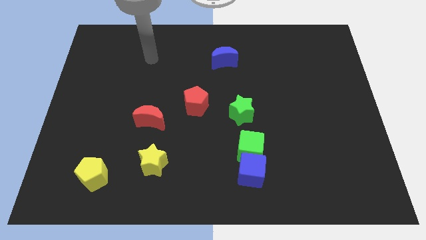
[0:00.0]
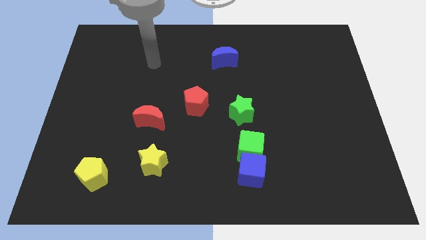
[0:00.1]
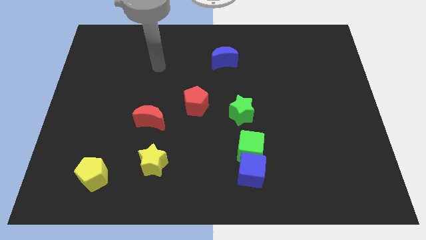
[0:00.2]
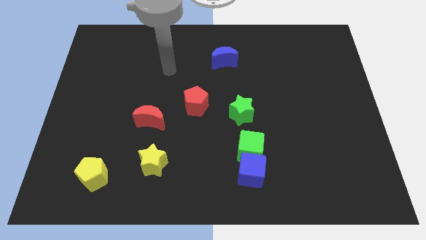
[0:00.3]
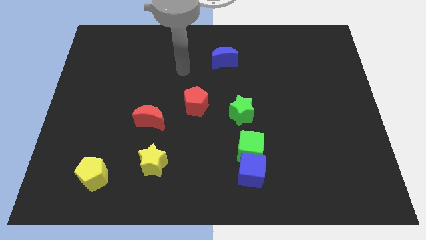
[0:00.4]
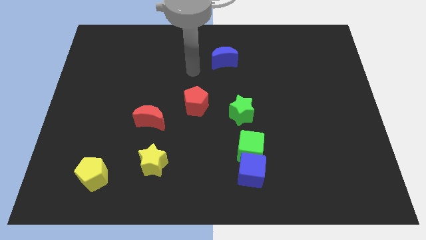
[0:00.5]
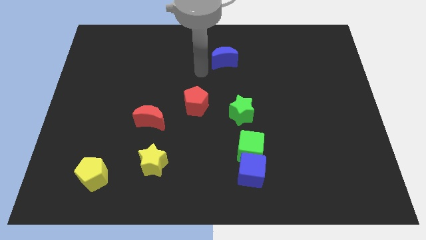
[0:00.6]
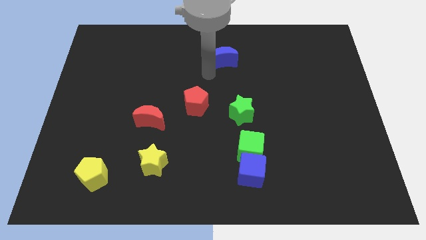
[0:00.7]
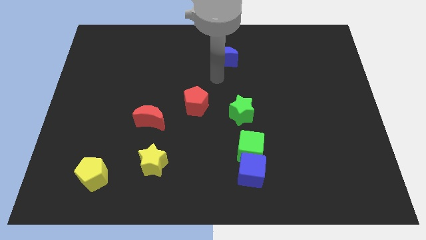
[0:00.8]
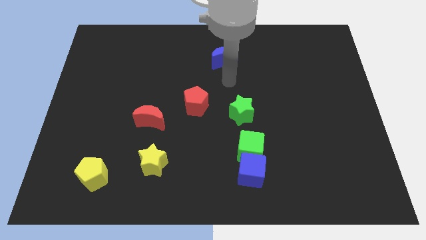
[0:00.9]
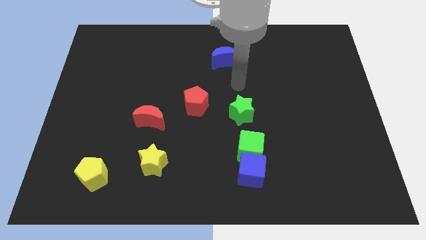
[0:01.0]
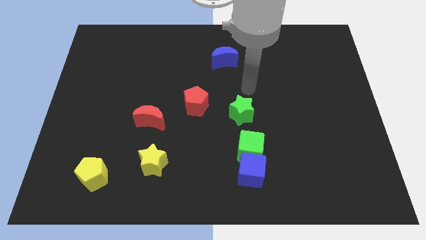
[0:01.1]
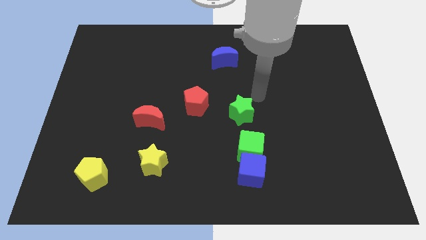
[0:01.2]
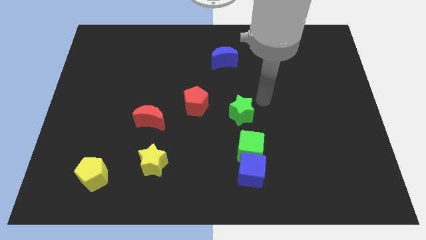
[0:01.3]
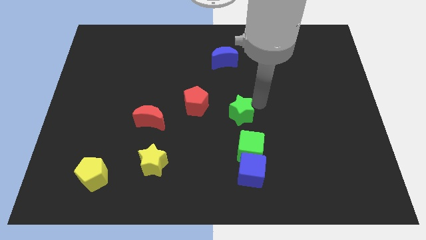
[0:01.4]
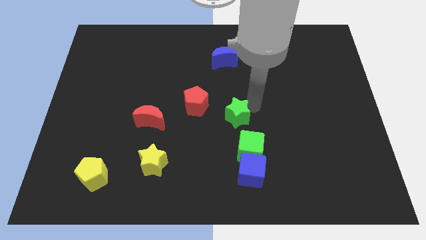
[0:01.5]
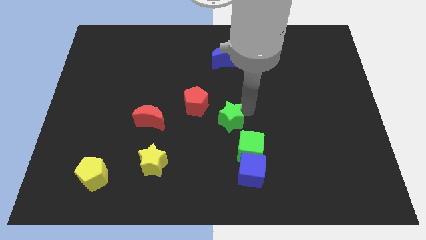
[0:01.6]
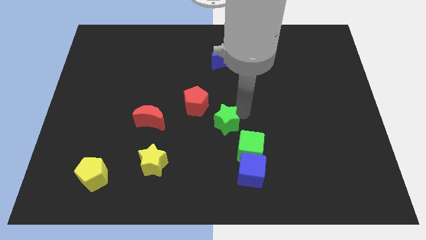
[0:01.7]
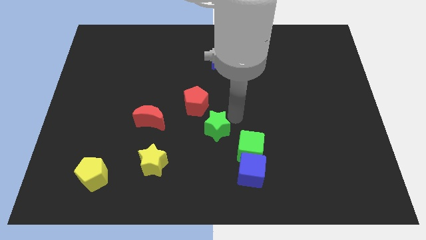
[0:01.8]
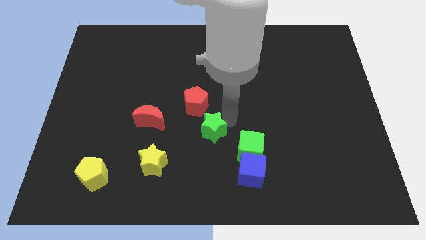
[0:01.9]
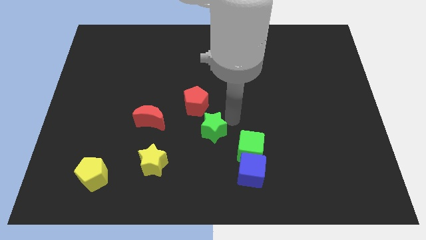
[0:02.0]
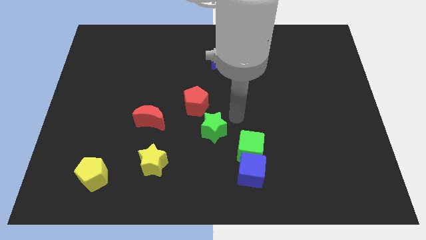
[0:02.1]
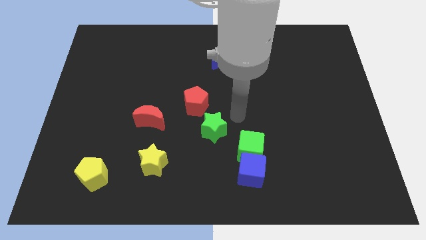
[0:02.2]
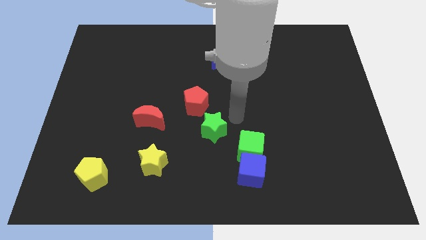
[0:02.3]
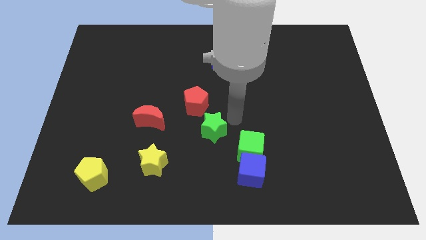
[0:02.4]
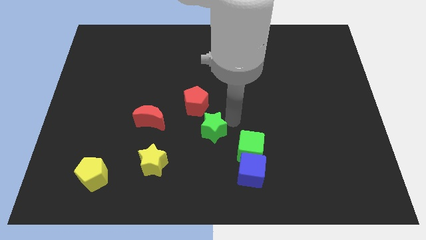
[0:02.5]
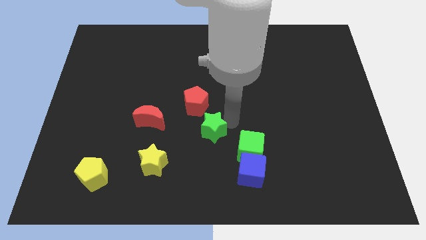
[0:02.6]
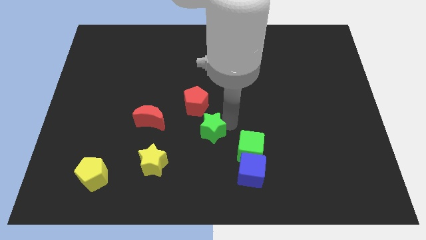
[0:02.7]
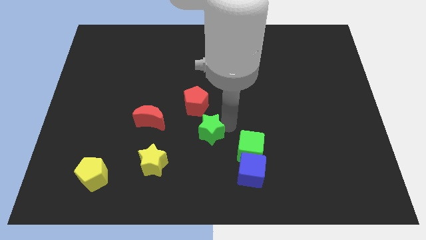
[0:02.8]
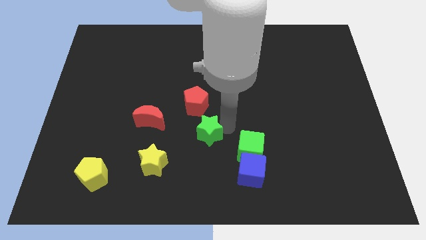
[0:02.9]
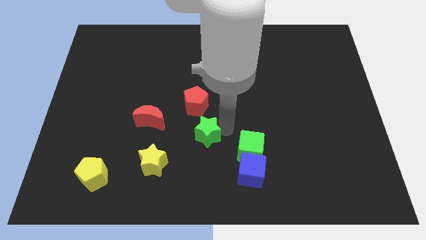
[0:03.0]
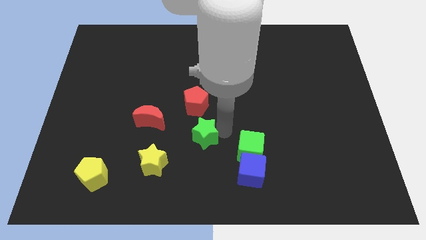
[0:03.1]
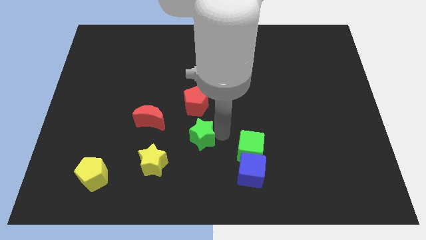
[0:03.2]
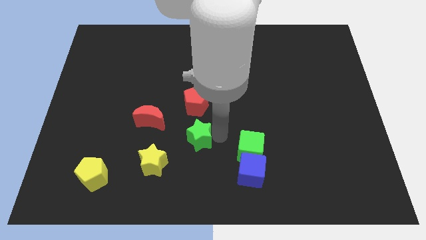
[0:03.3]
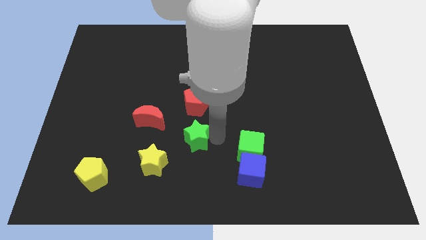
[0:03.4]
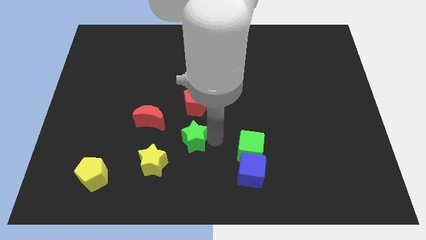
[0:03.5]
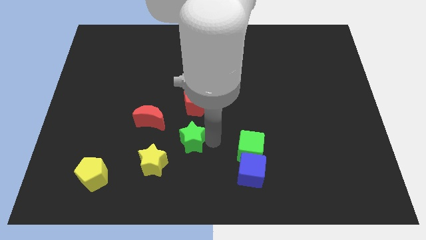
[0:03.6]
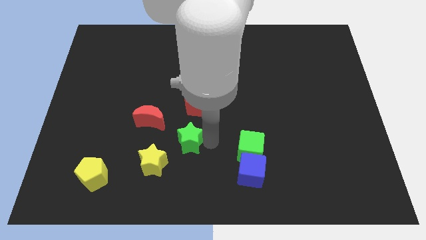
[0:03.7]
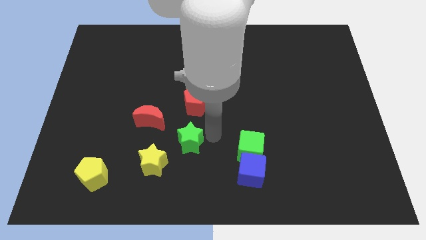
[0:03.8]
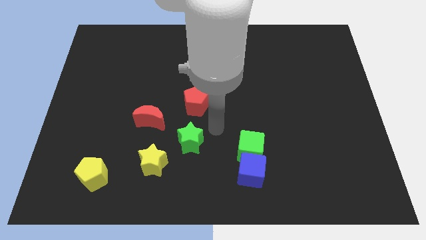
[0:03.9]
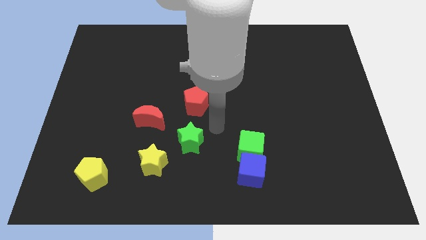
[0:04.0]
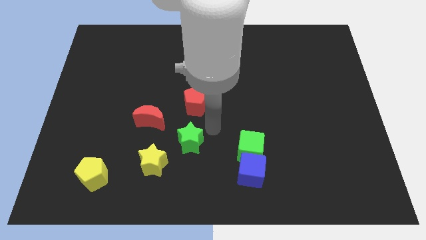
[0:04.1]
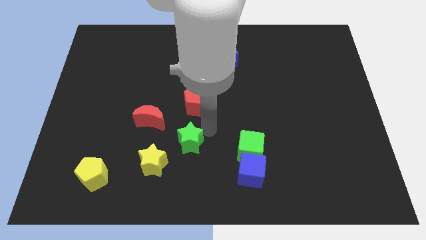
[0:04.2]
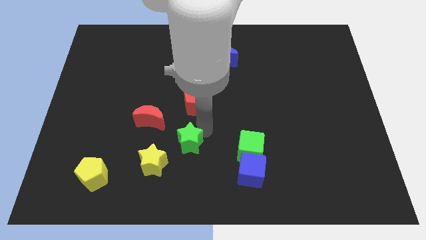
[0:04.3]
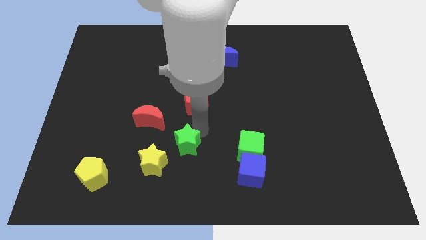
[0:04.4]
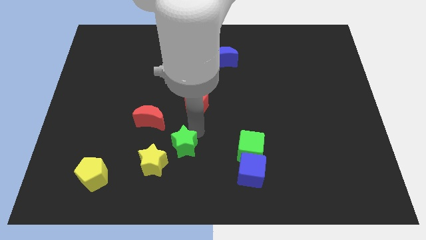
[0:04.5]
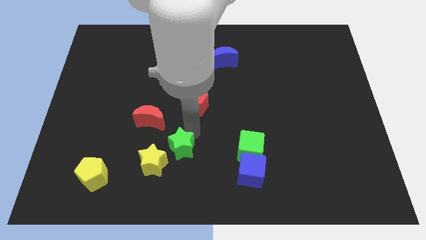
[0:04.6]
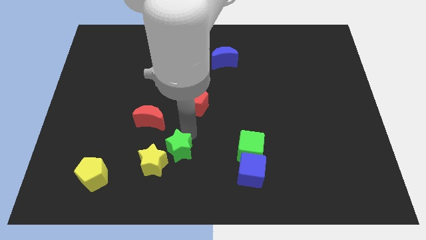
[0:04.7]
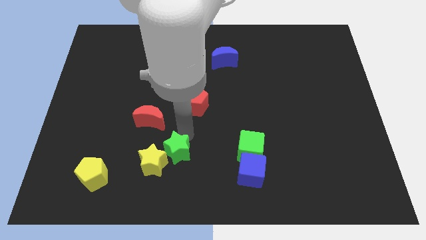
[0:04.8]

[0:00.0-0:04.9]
slide the green star close to the yellow star

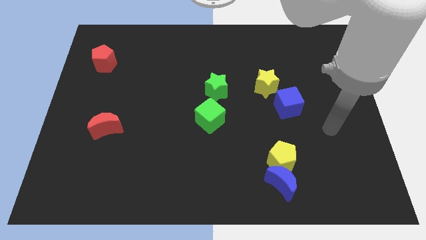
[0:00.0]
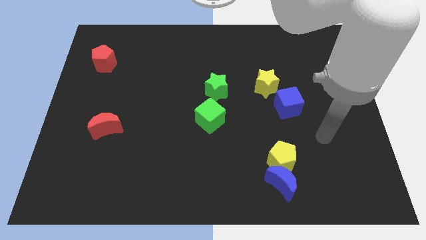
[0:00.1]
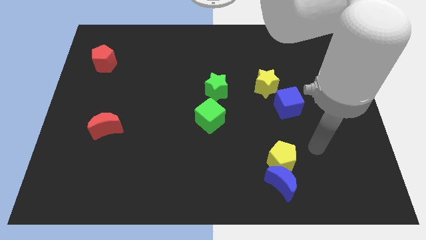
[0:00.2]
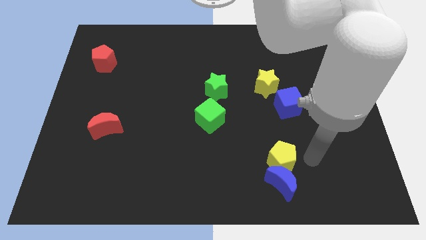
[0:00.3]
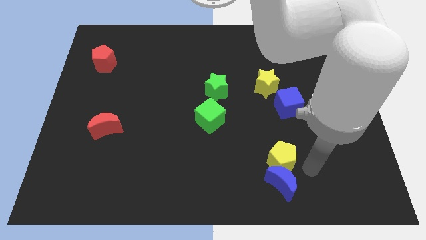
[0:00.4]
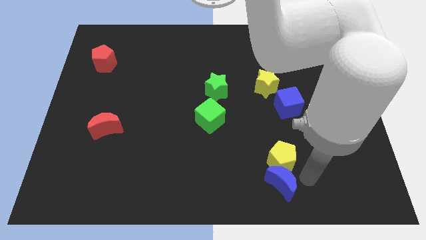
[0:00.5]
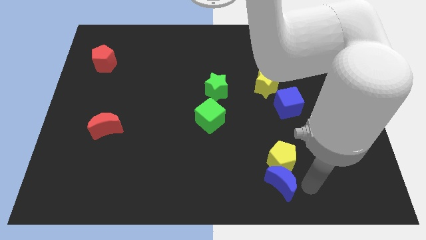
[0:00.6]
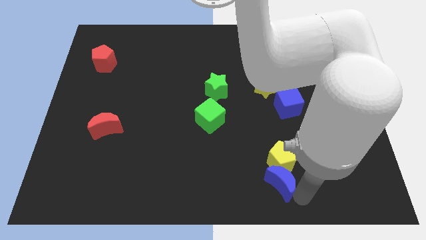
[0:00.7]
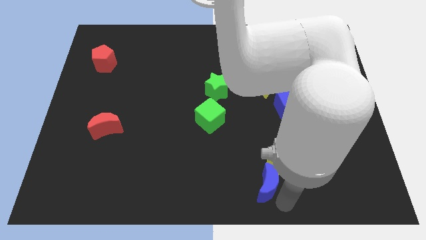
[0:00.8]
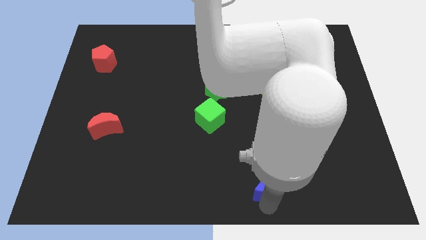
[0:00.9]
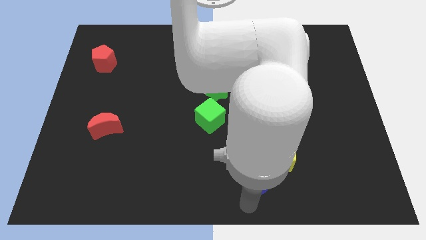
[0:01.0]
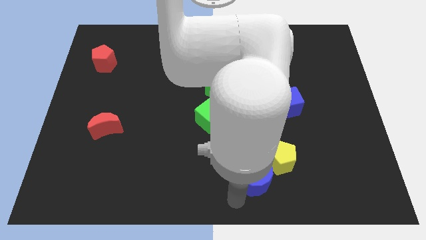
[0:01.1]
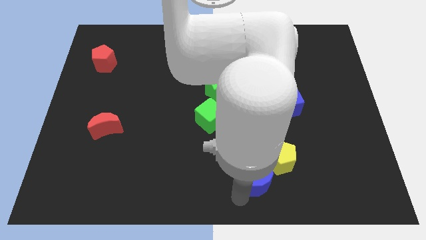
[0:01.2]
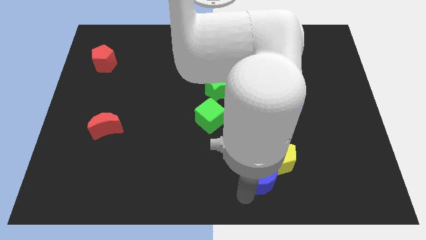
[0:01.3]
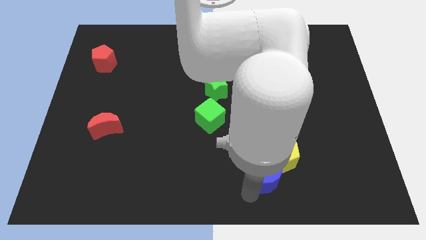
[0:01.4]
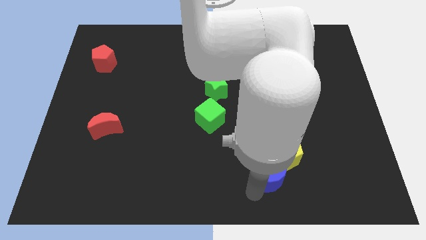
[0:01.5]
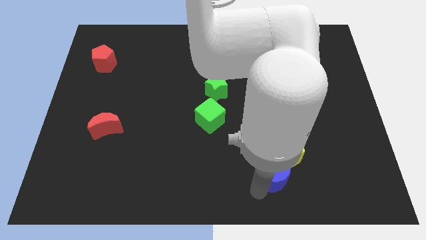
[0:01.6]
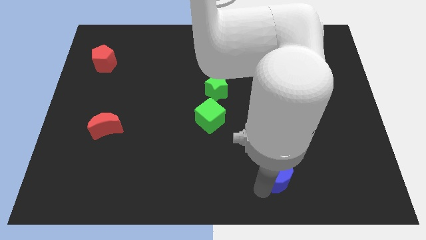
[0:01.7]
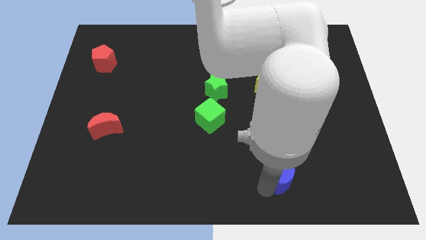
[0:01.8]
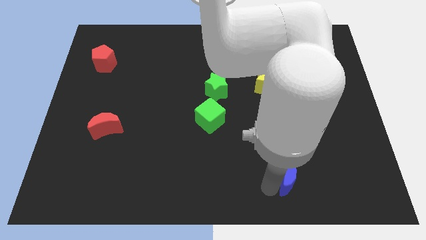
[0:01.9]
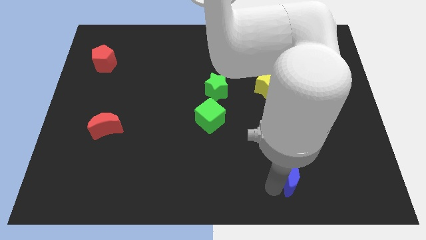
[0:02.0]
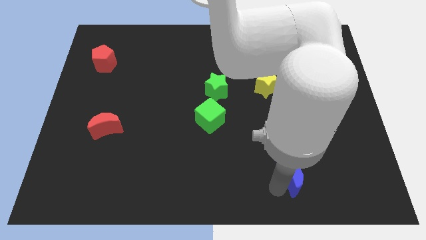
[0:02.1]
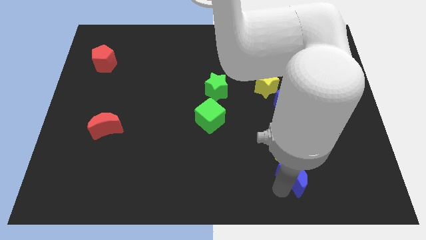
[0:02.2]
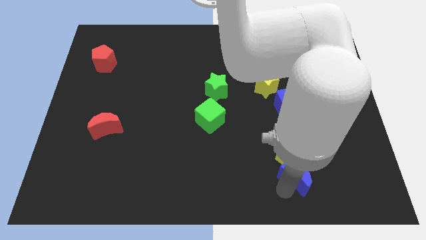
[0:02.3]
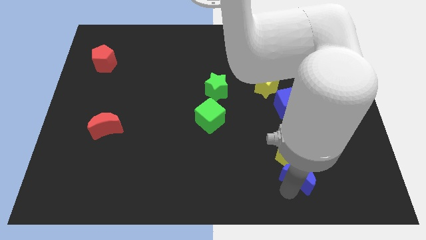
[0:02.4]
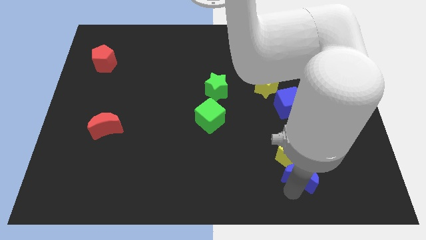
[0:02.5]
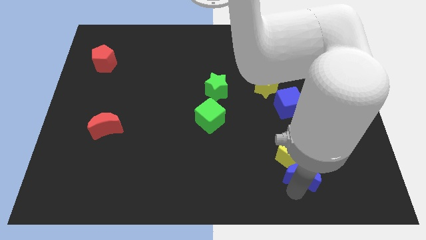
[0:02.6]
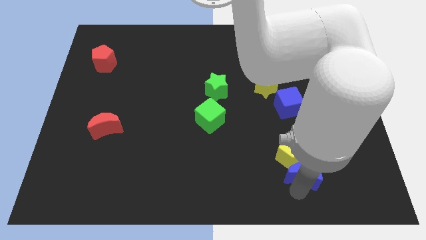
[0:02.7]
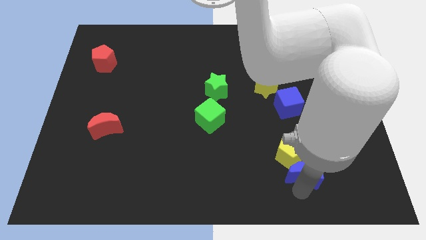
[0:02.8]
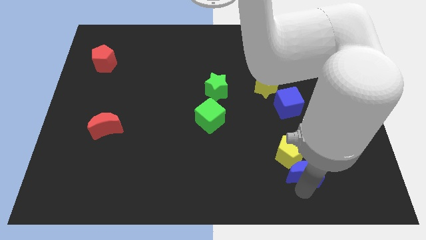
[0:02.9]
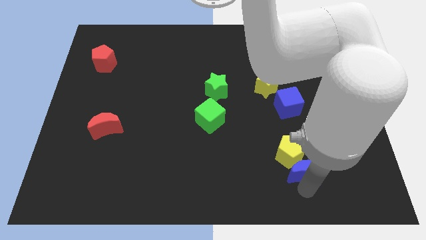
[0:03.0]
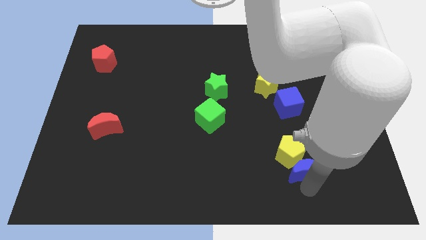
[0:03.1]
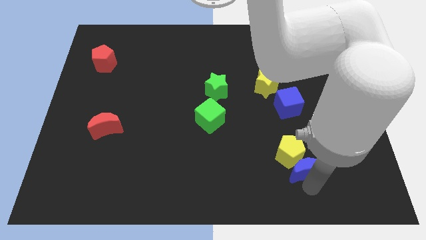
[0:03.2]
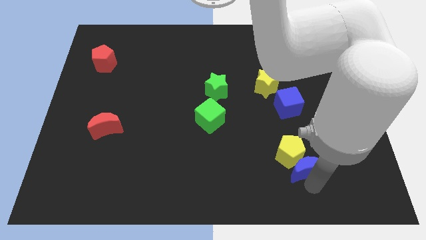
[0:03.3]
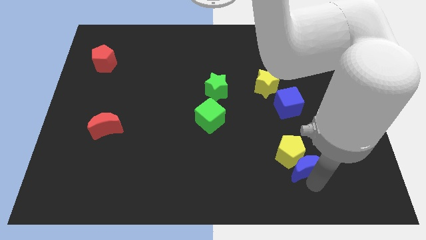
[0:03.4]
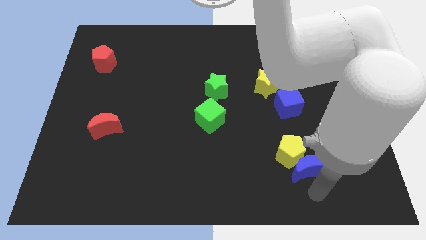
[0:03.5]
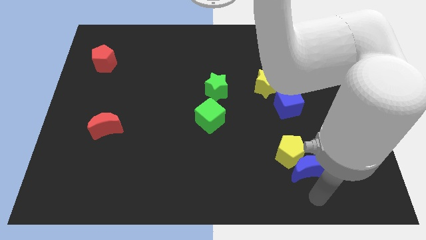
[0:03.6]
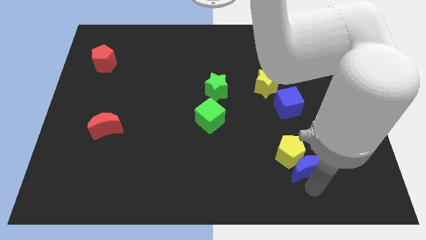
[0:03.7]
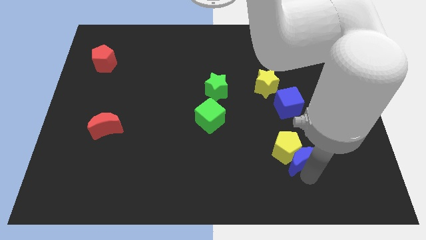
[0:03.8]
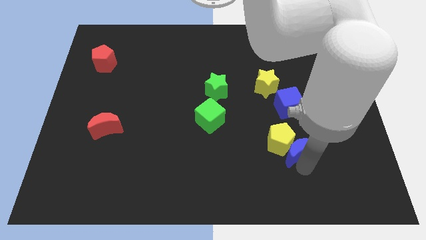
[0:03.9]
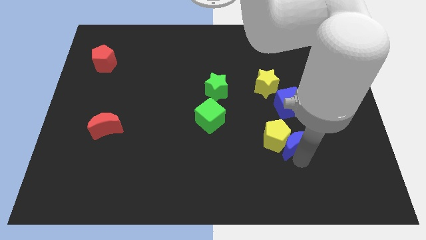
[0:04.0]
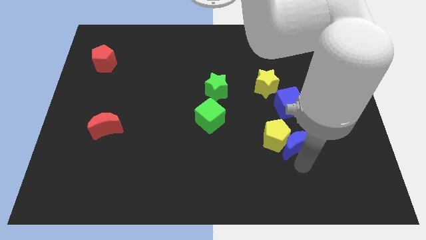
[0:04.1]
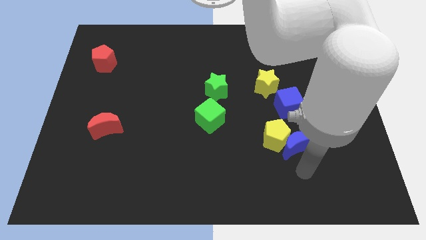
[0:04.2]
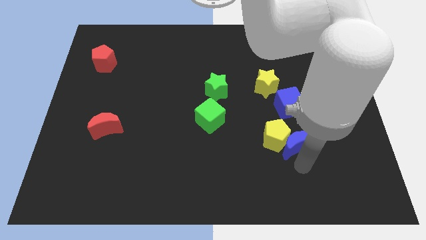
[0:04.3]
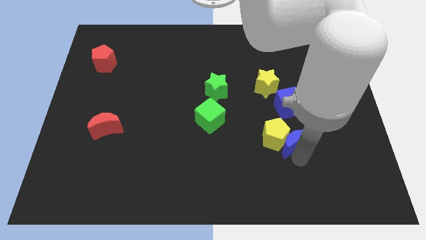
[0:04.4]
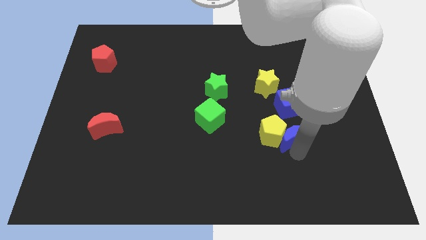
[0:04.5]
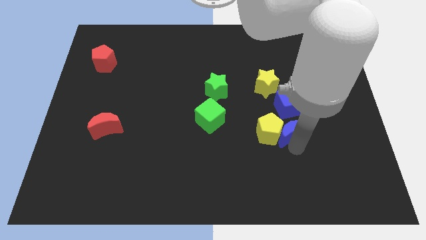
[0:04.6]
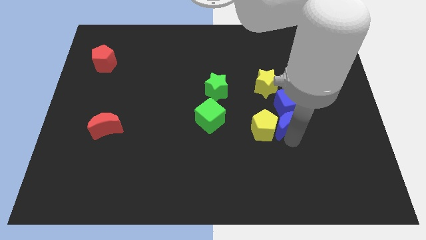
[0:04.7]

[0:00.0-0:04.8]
move the blue moon to the blue cube
